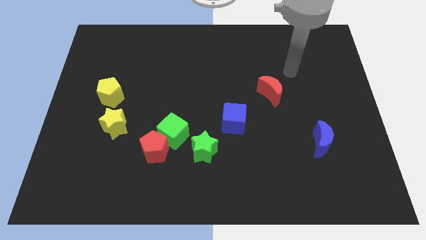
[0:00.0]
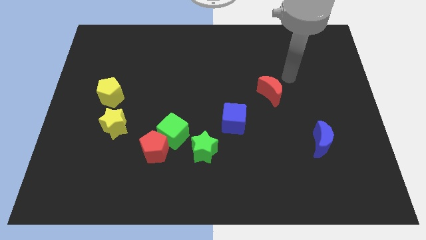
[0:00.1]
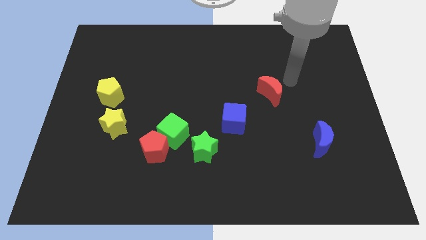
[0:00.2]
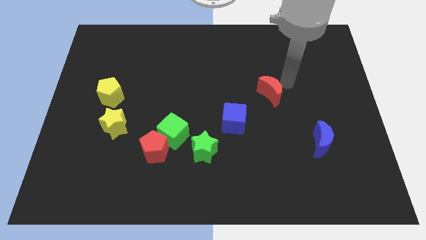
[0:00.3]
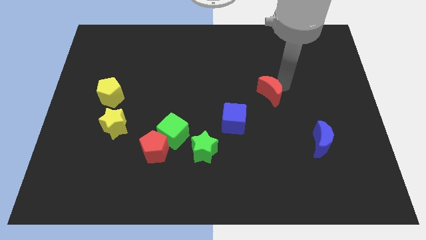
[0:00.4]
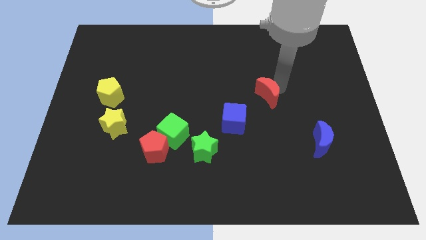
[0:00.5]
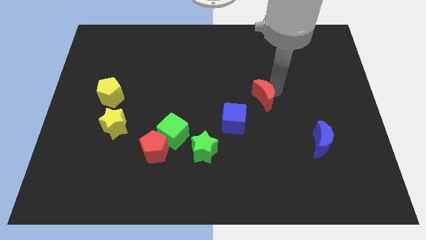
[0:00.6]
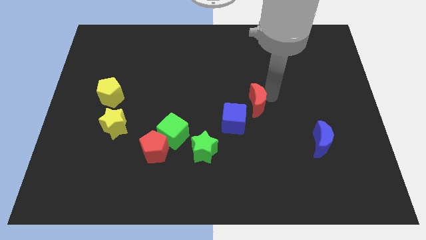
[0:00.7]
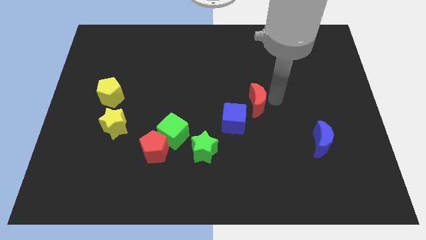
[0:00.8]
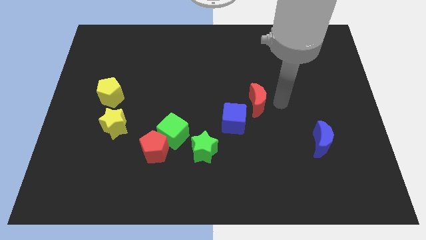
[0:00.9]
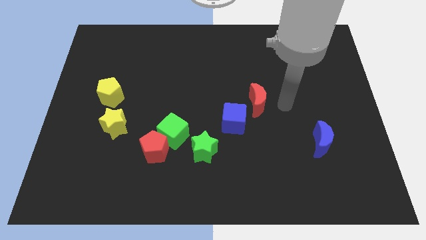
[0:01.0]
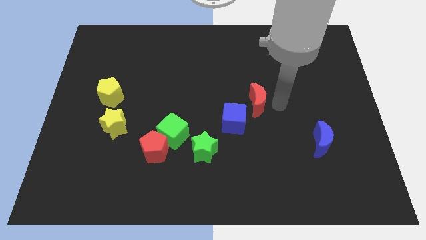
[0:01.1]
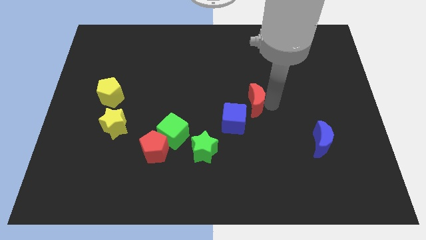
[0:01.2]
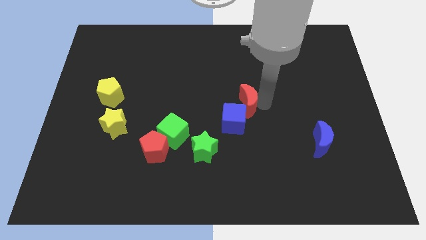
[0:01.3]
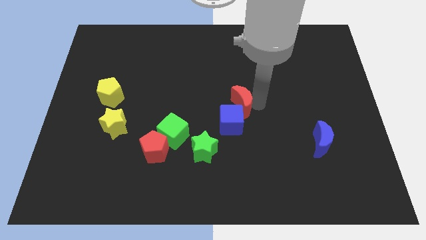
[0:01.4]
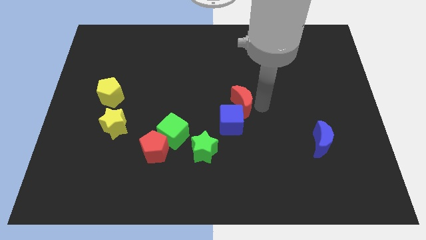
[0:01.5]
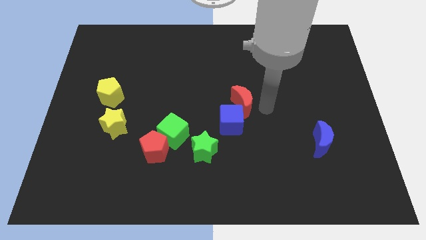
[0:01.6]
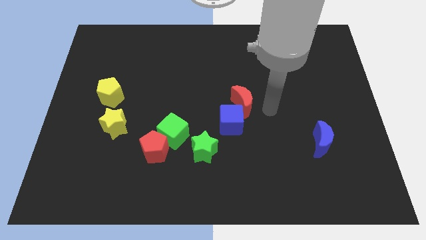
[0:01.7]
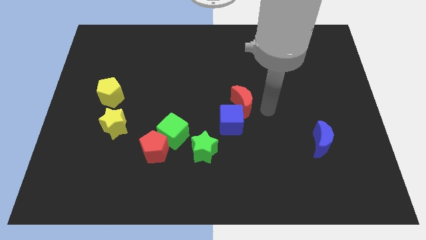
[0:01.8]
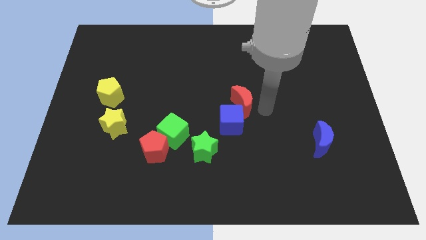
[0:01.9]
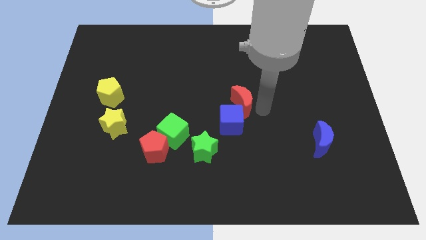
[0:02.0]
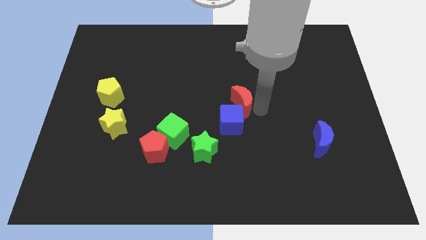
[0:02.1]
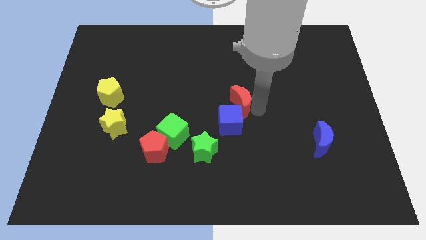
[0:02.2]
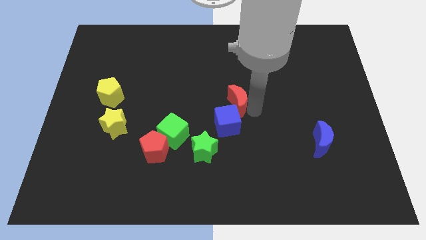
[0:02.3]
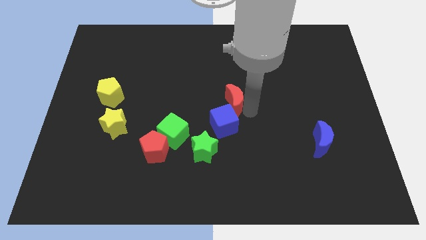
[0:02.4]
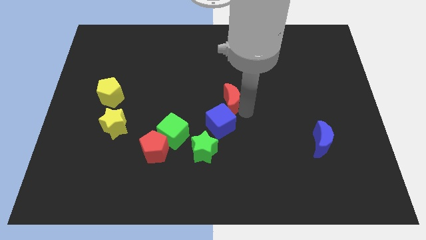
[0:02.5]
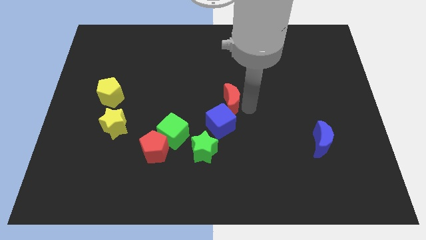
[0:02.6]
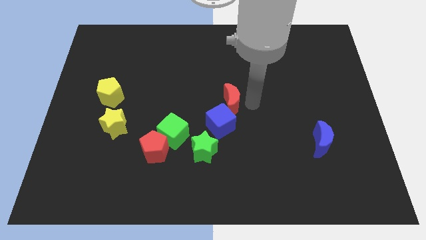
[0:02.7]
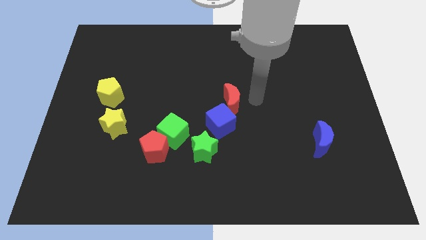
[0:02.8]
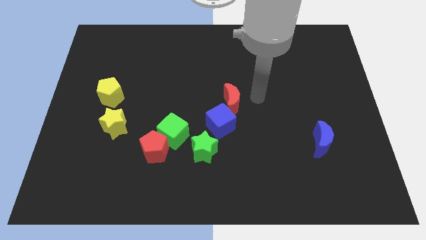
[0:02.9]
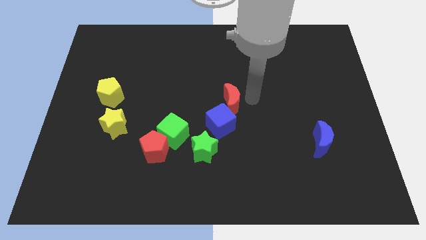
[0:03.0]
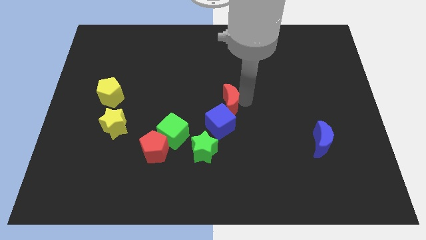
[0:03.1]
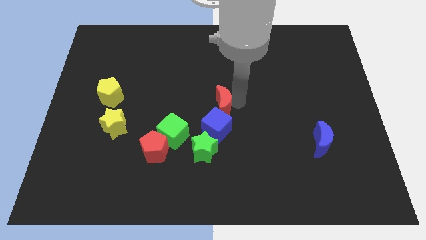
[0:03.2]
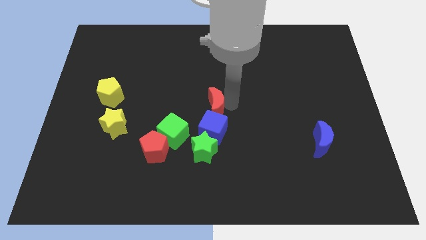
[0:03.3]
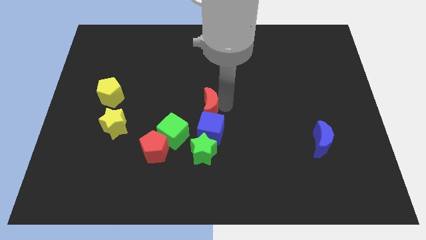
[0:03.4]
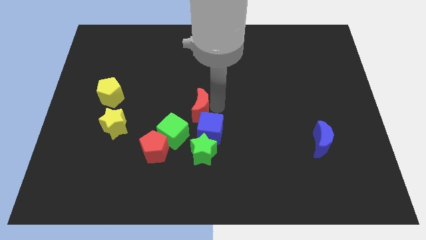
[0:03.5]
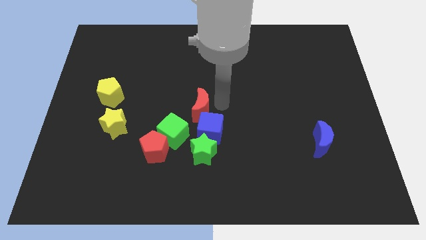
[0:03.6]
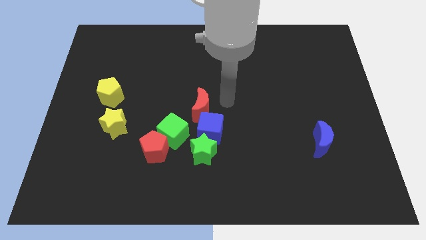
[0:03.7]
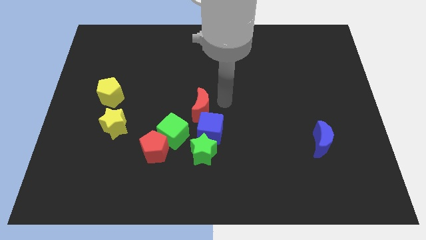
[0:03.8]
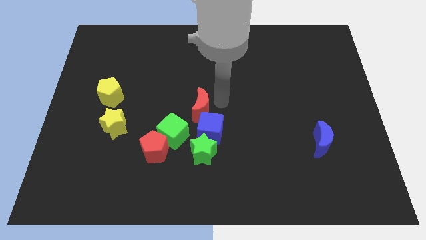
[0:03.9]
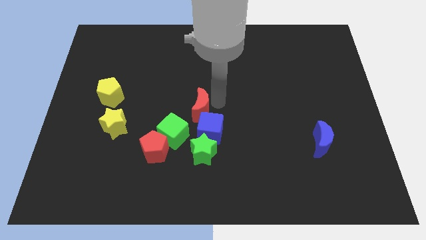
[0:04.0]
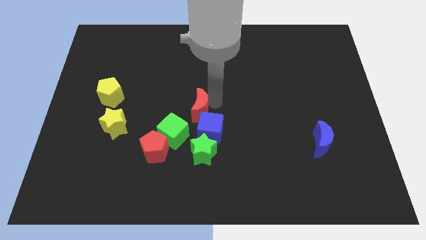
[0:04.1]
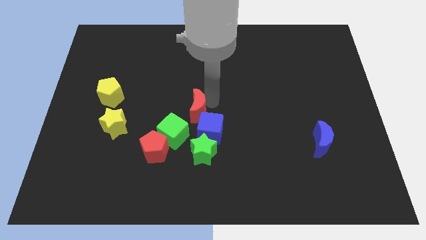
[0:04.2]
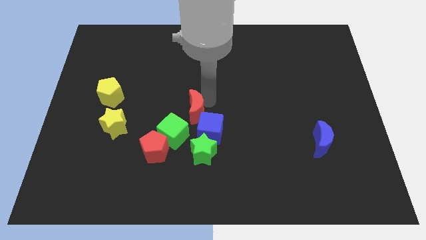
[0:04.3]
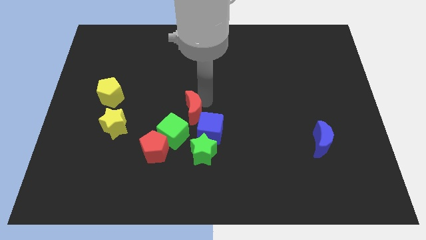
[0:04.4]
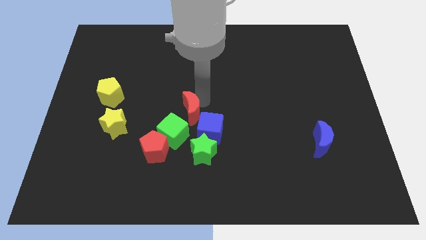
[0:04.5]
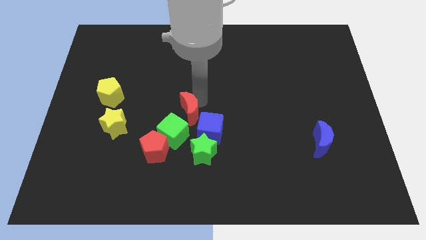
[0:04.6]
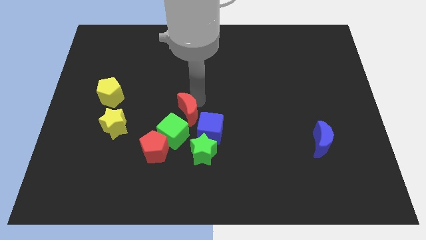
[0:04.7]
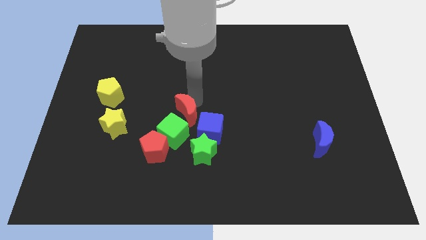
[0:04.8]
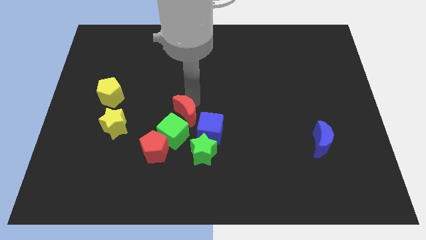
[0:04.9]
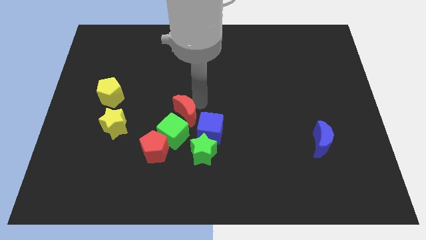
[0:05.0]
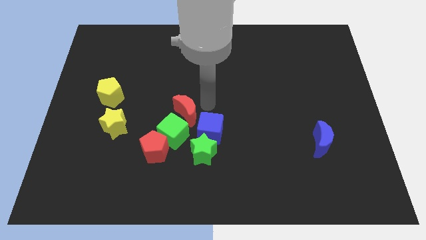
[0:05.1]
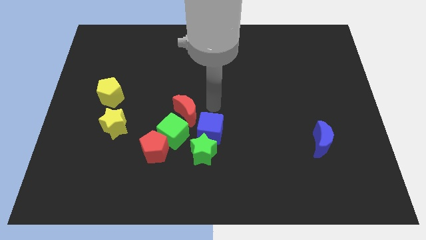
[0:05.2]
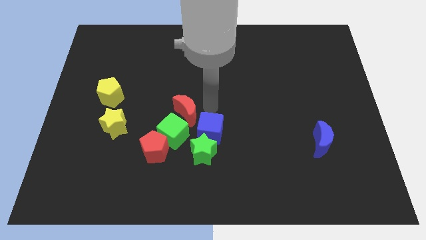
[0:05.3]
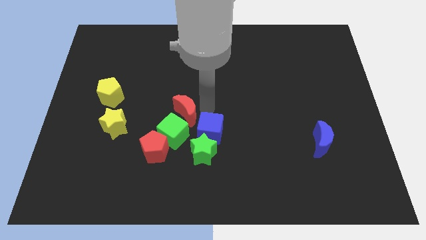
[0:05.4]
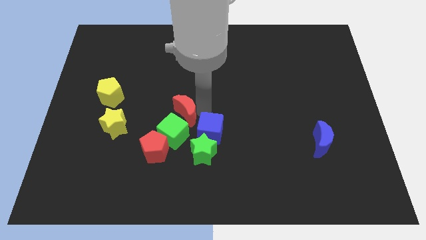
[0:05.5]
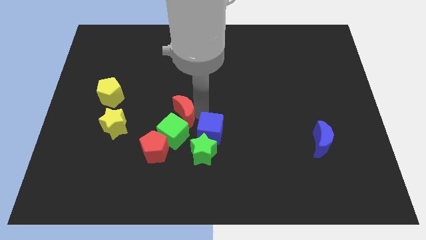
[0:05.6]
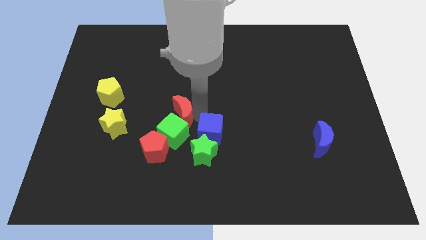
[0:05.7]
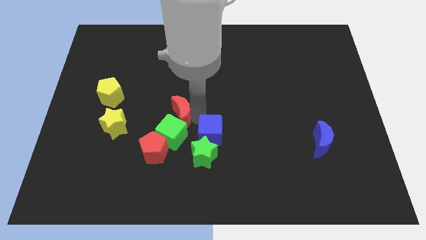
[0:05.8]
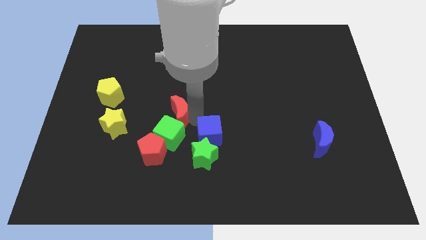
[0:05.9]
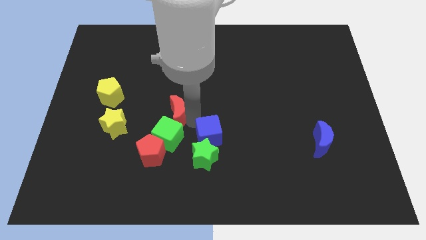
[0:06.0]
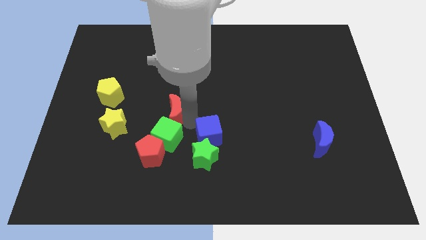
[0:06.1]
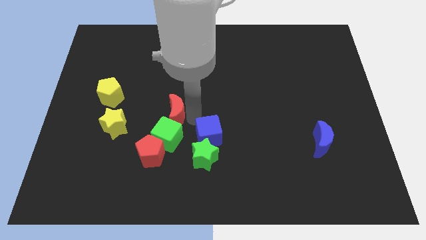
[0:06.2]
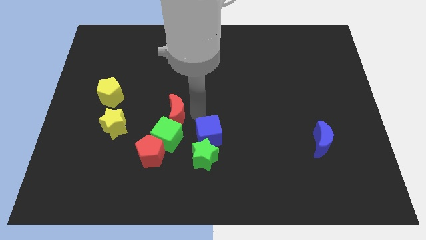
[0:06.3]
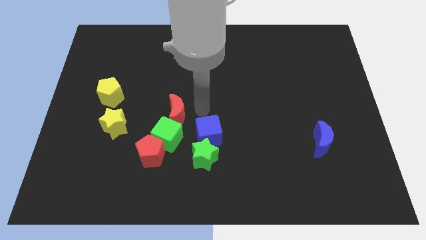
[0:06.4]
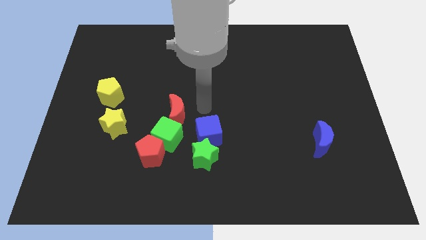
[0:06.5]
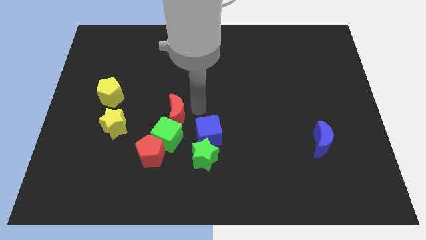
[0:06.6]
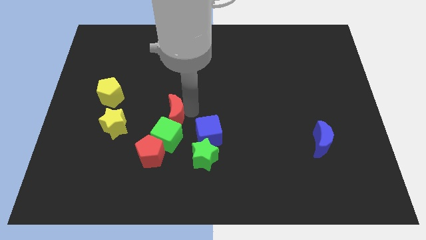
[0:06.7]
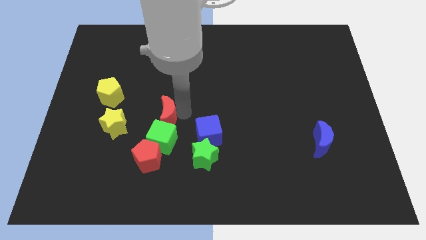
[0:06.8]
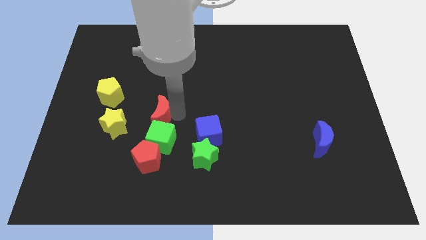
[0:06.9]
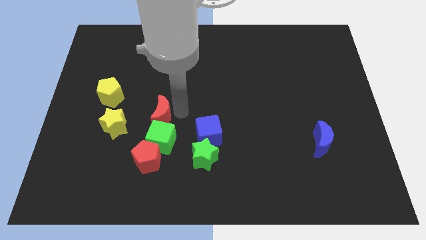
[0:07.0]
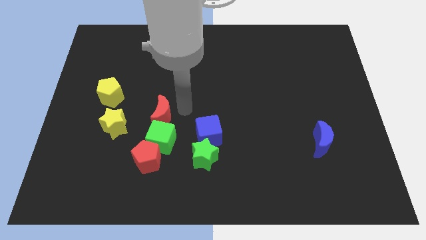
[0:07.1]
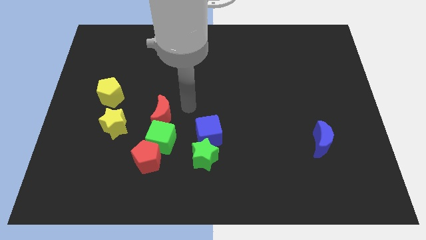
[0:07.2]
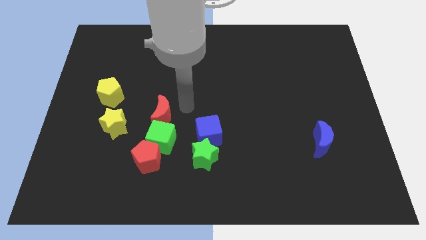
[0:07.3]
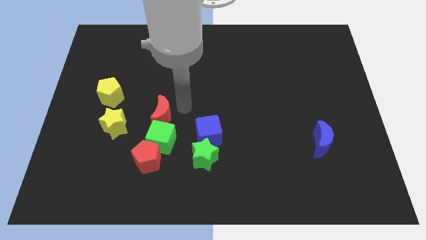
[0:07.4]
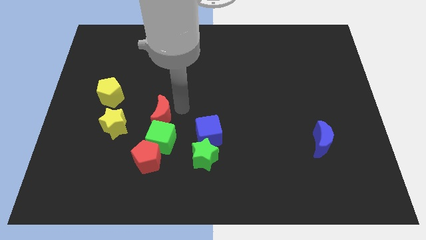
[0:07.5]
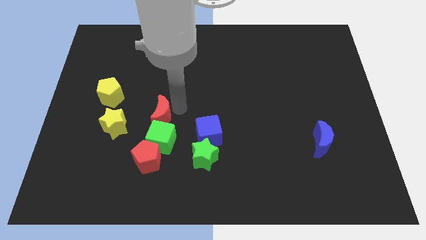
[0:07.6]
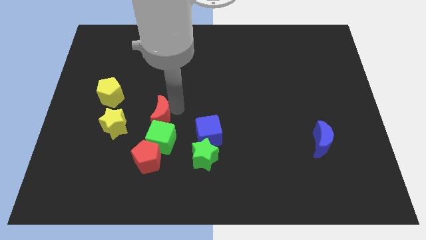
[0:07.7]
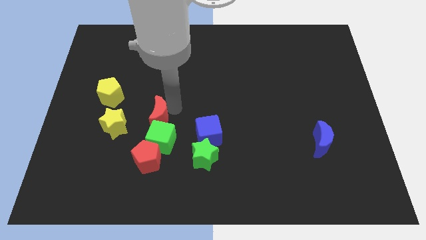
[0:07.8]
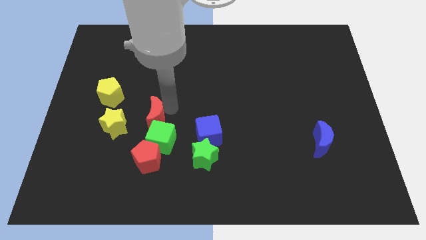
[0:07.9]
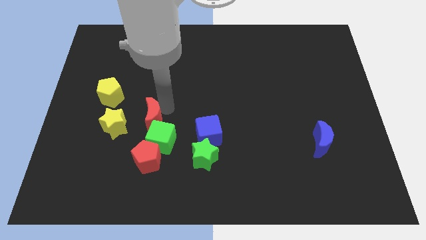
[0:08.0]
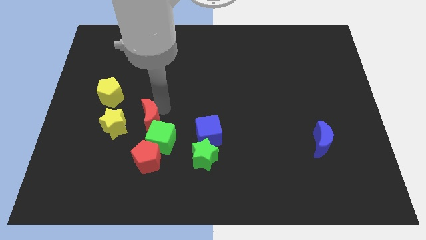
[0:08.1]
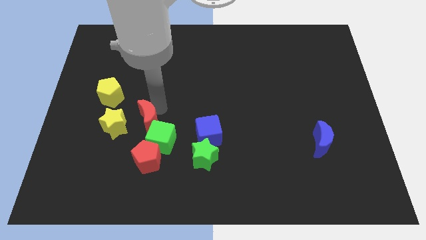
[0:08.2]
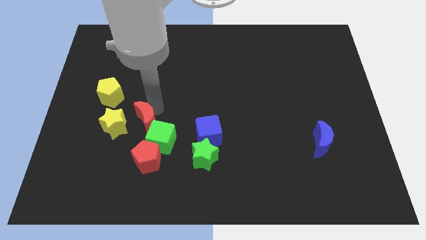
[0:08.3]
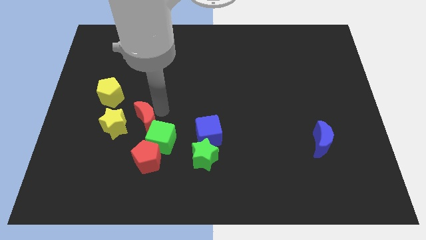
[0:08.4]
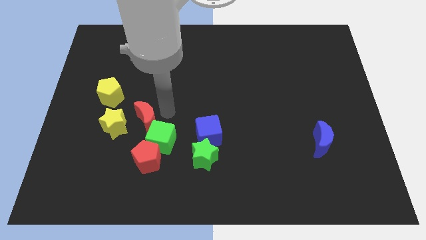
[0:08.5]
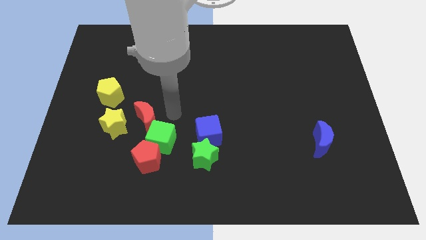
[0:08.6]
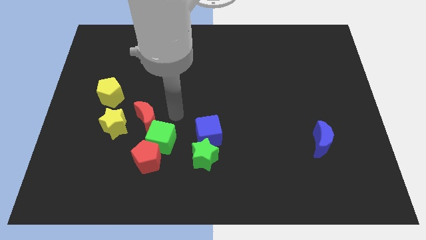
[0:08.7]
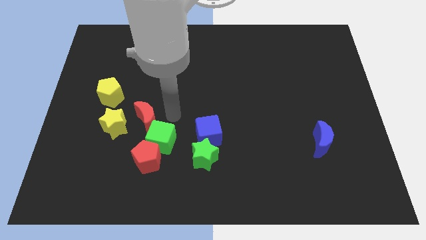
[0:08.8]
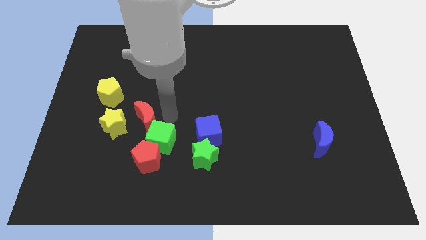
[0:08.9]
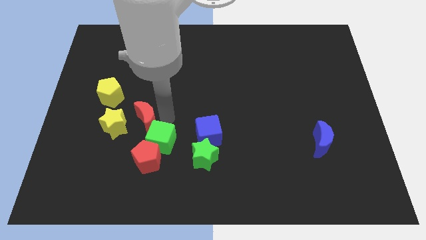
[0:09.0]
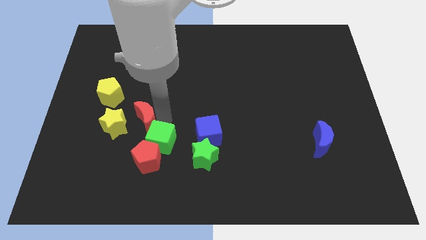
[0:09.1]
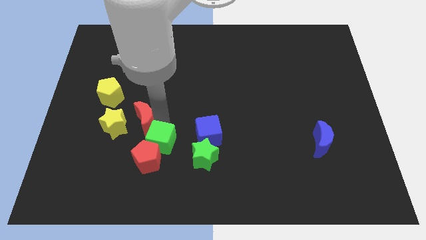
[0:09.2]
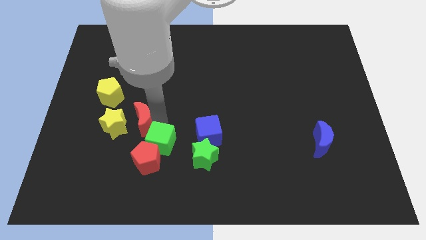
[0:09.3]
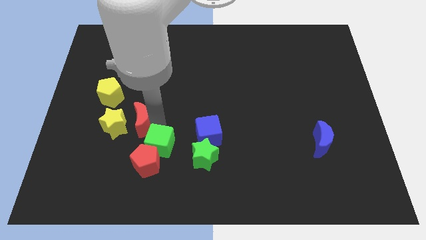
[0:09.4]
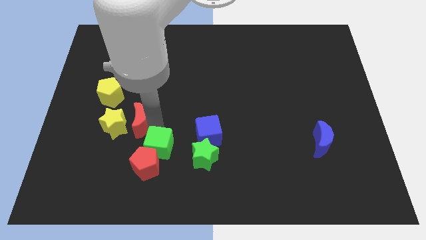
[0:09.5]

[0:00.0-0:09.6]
slide the red moon to the yellow star
